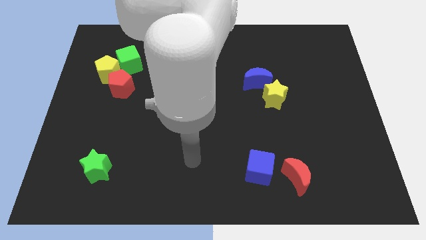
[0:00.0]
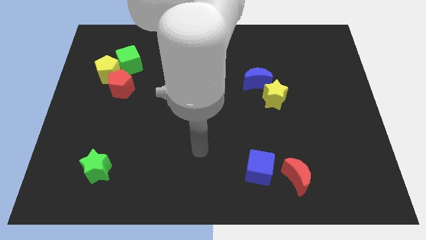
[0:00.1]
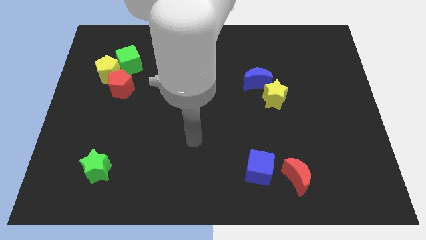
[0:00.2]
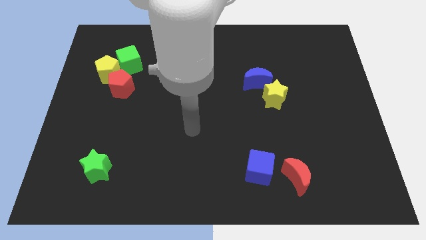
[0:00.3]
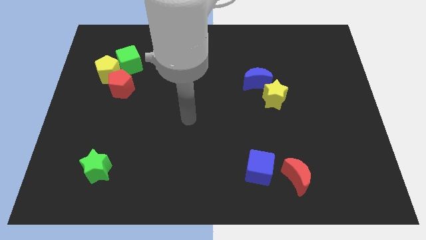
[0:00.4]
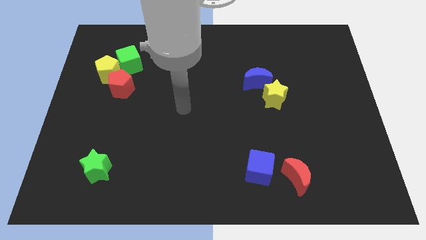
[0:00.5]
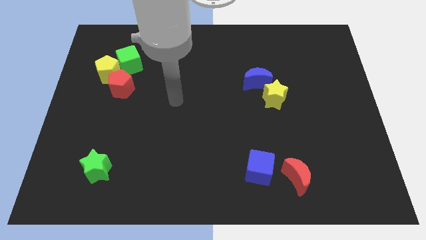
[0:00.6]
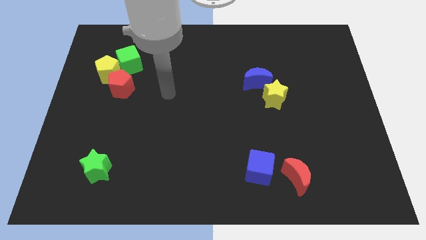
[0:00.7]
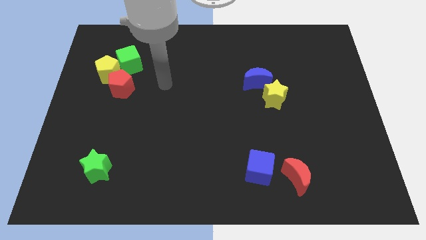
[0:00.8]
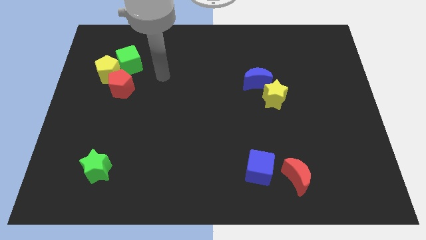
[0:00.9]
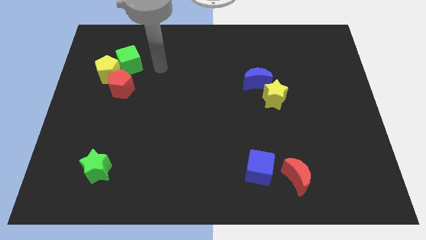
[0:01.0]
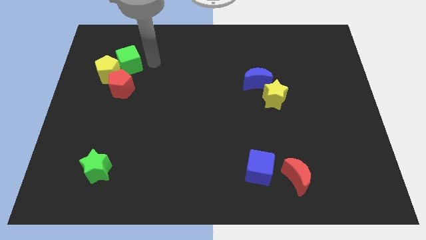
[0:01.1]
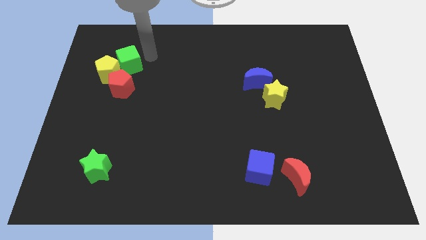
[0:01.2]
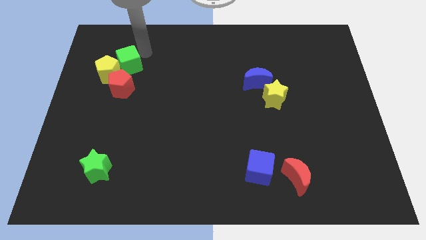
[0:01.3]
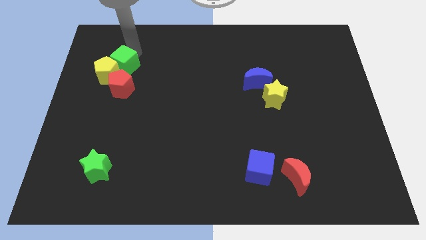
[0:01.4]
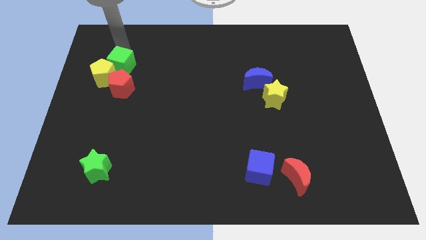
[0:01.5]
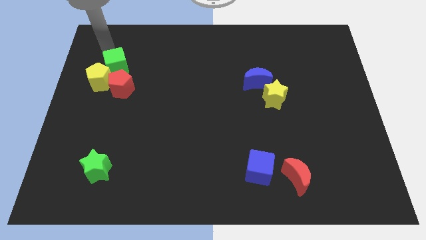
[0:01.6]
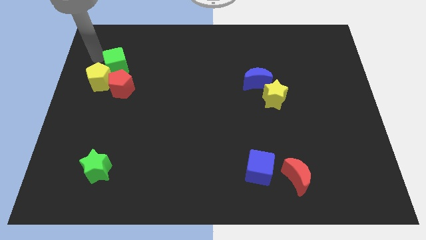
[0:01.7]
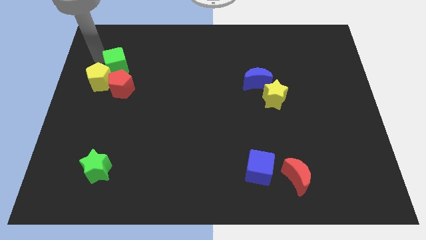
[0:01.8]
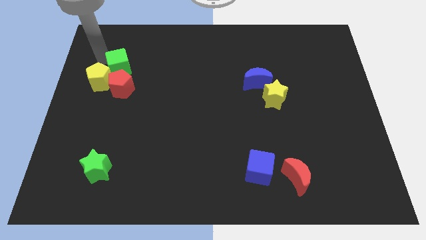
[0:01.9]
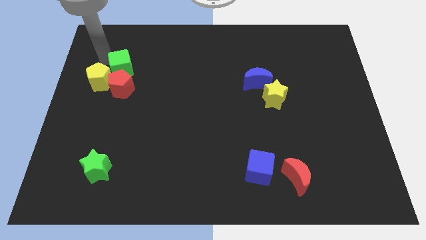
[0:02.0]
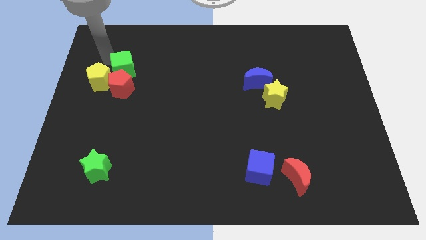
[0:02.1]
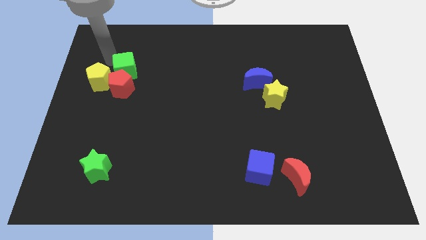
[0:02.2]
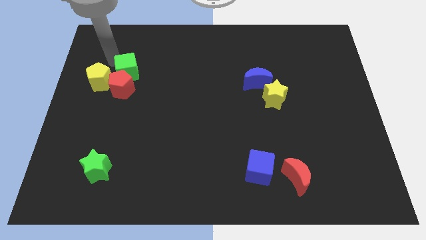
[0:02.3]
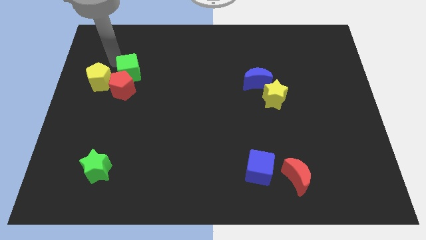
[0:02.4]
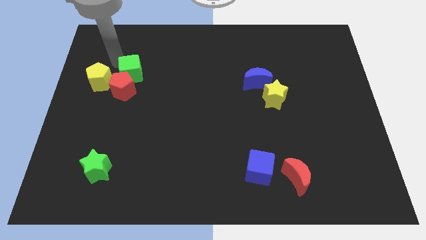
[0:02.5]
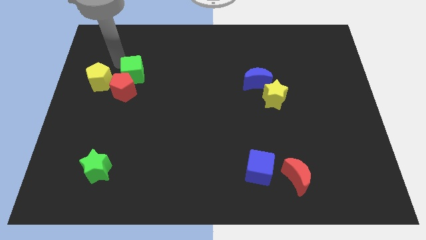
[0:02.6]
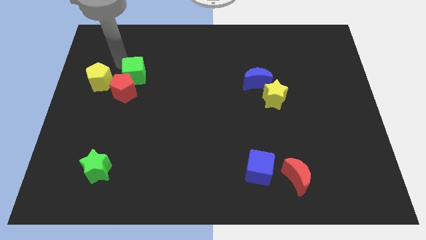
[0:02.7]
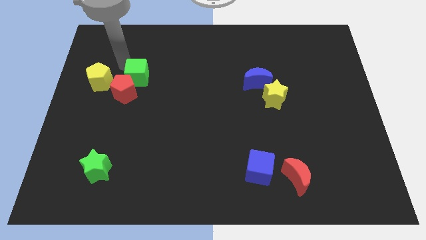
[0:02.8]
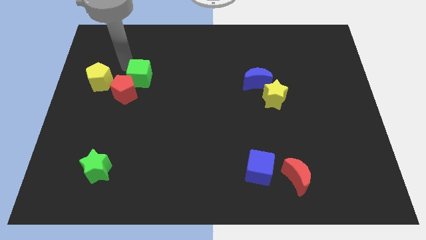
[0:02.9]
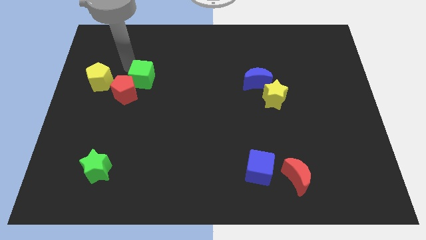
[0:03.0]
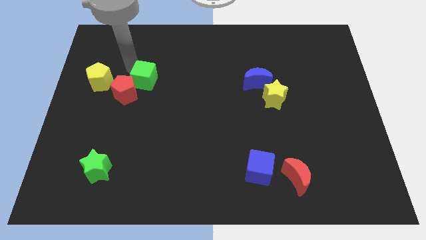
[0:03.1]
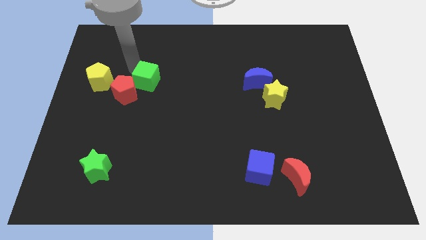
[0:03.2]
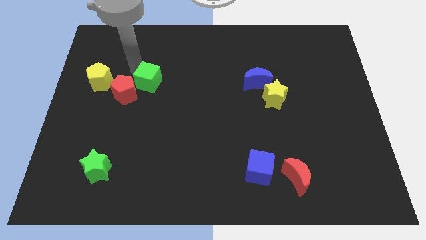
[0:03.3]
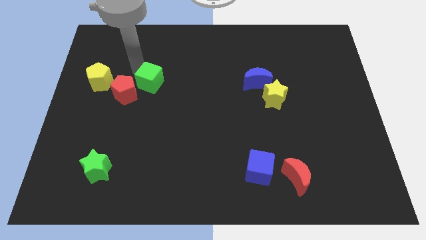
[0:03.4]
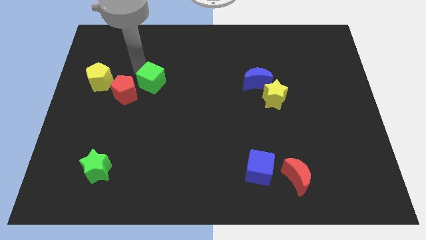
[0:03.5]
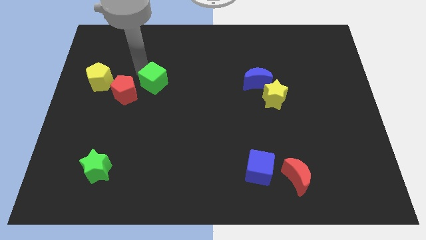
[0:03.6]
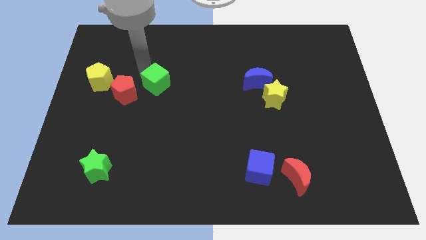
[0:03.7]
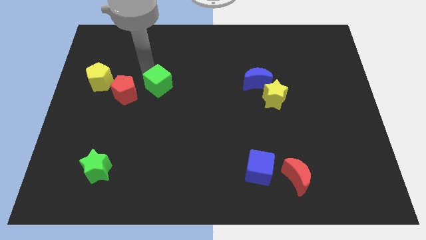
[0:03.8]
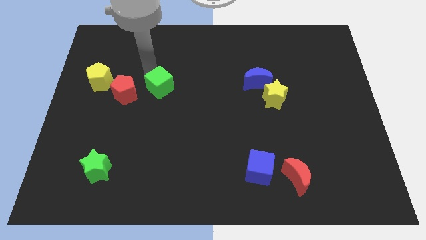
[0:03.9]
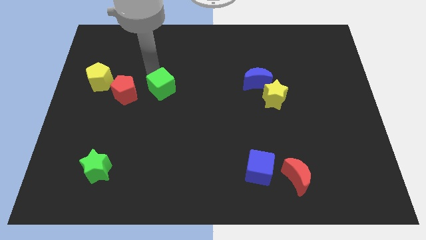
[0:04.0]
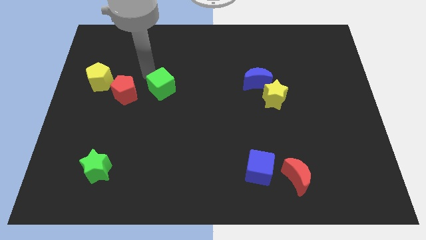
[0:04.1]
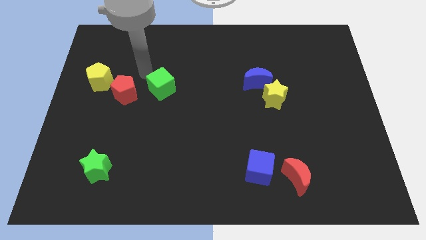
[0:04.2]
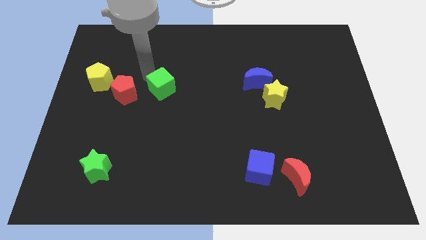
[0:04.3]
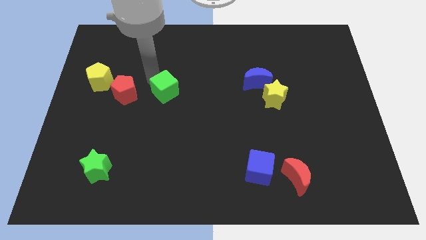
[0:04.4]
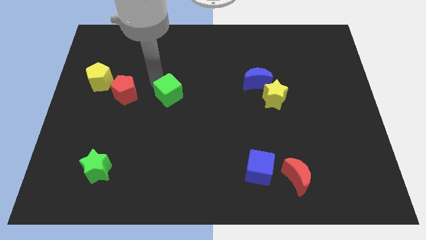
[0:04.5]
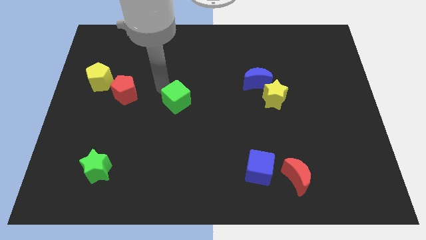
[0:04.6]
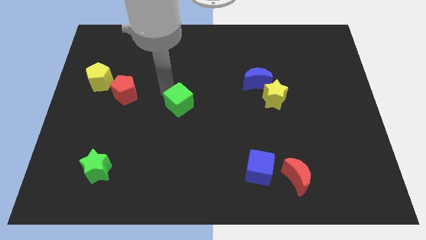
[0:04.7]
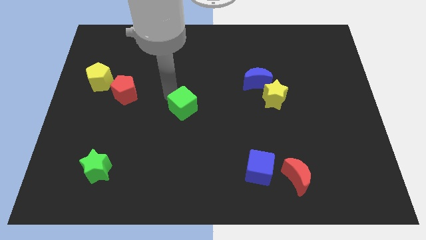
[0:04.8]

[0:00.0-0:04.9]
move the green cube downwards and then right

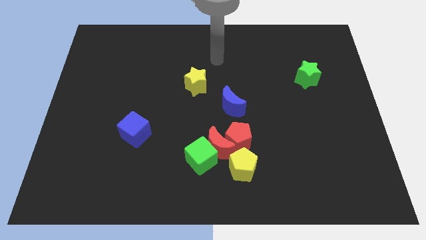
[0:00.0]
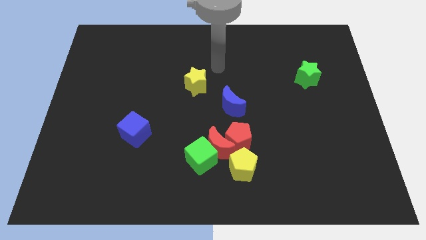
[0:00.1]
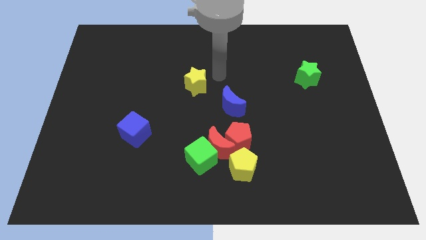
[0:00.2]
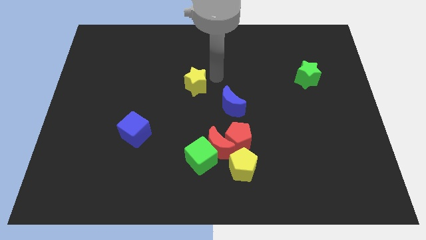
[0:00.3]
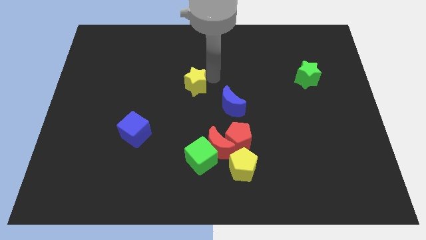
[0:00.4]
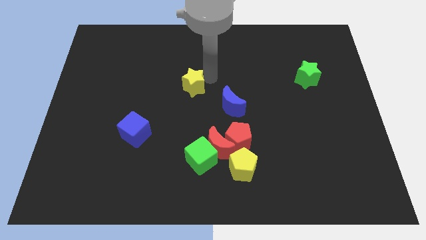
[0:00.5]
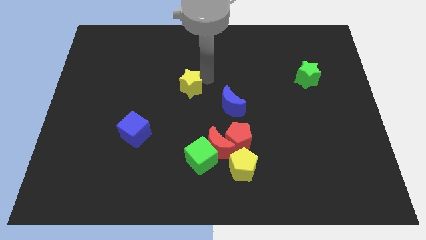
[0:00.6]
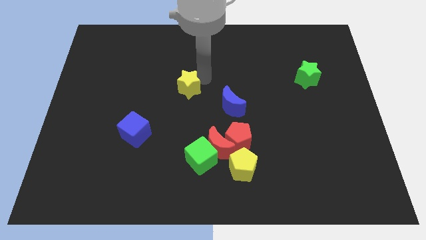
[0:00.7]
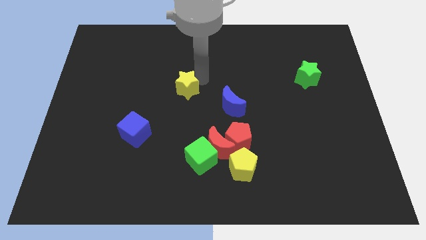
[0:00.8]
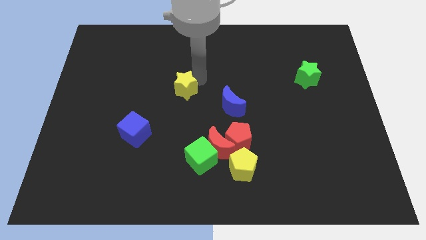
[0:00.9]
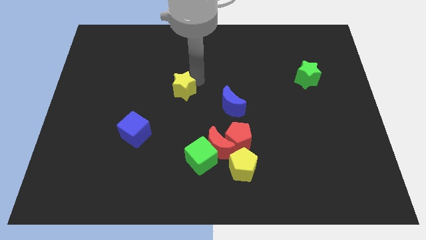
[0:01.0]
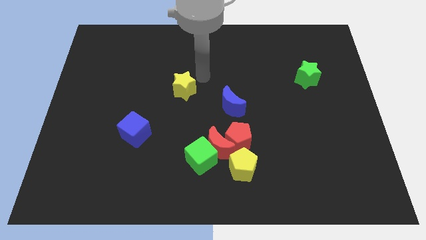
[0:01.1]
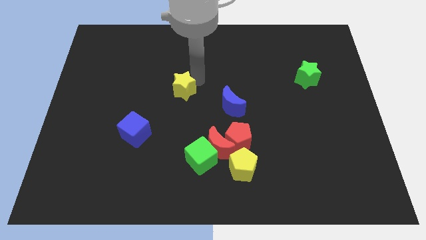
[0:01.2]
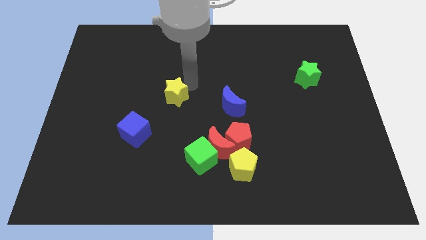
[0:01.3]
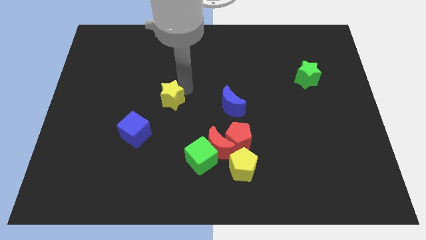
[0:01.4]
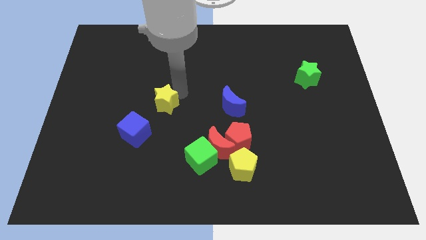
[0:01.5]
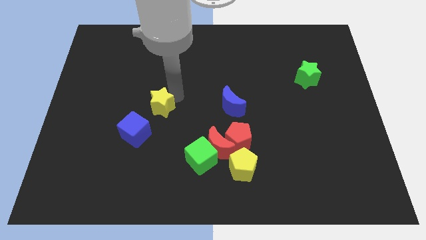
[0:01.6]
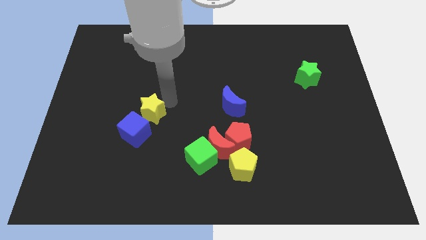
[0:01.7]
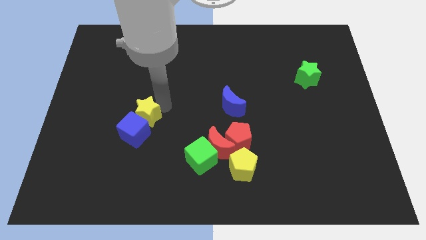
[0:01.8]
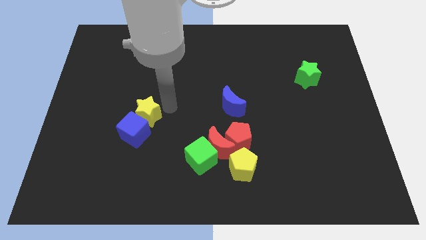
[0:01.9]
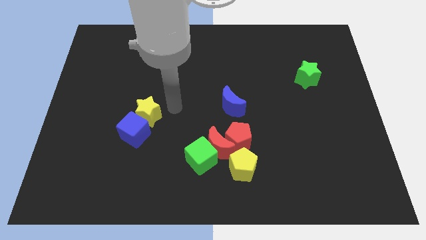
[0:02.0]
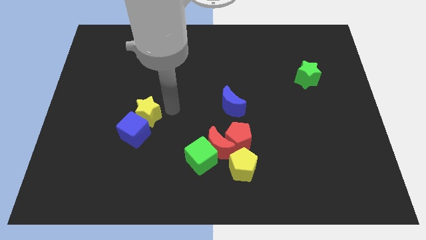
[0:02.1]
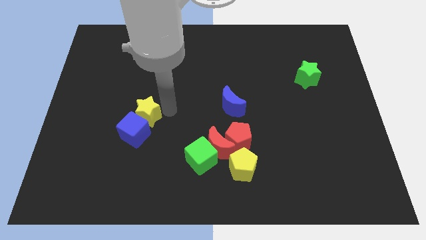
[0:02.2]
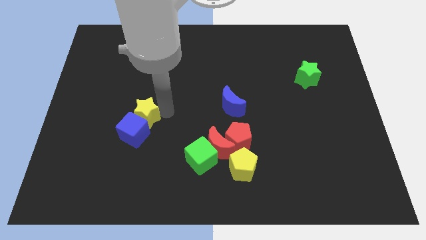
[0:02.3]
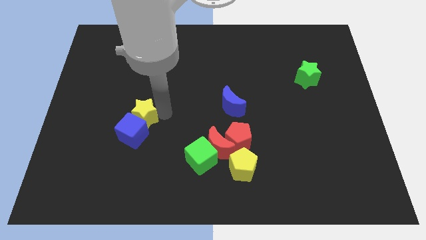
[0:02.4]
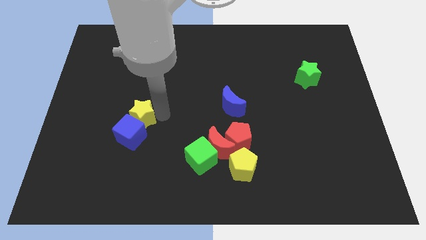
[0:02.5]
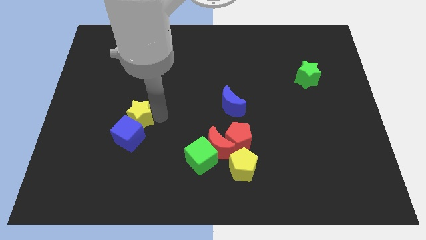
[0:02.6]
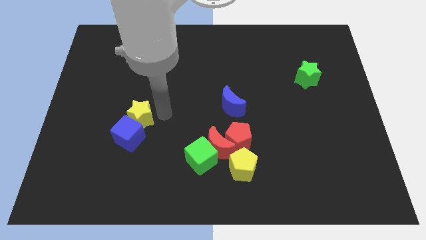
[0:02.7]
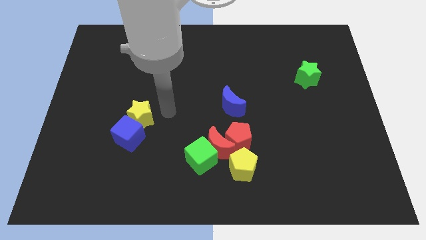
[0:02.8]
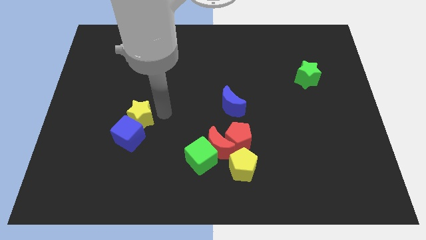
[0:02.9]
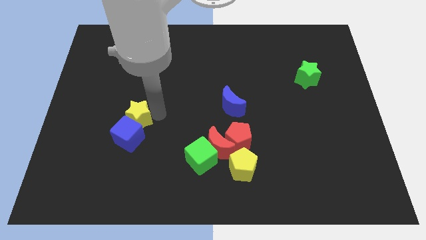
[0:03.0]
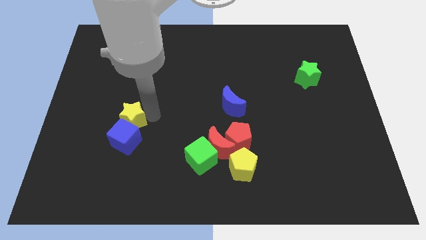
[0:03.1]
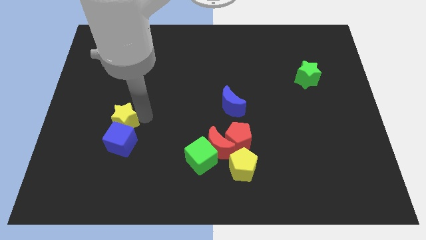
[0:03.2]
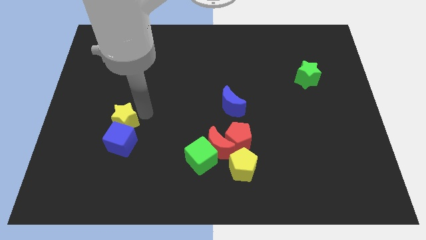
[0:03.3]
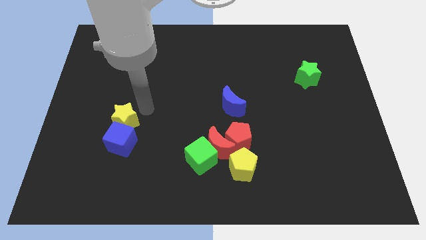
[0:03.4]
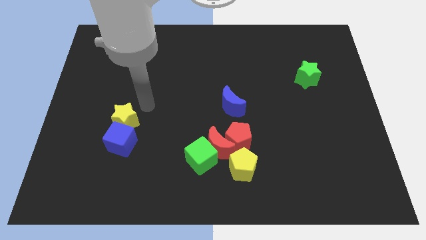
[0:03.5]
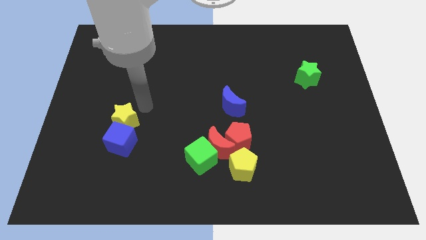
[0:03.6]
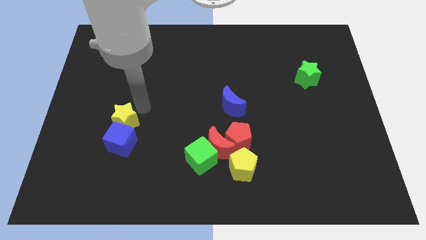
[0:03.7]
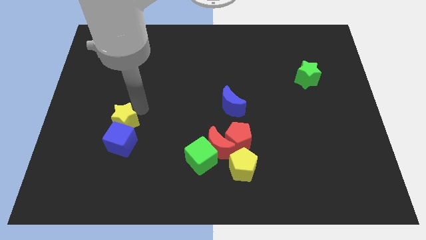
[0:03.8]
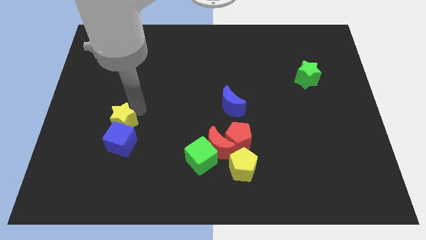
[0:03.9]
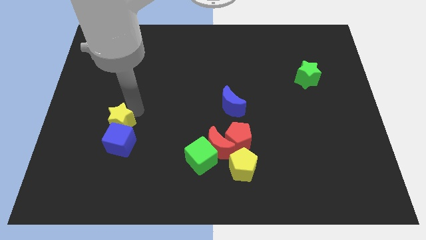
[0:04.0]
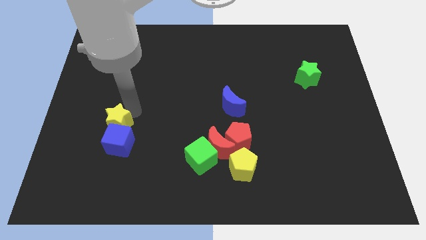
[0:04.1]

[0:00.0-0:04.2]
push the yellow star downwards and then left
